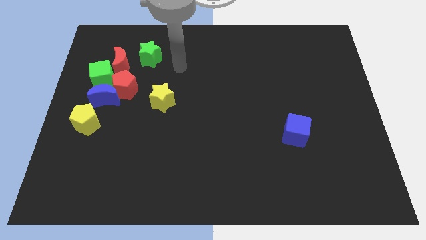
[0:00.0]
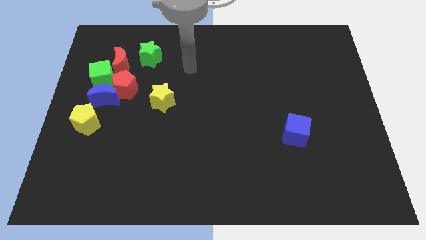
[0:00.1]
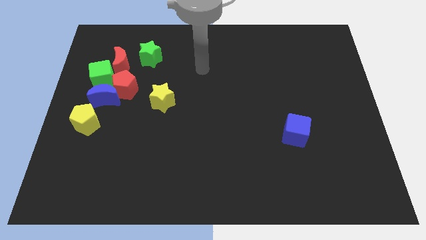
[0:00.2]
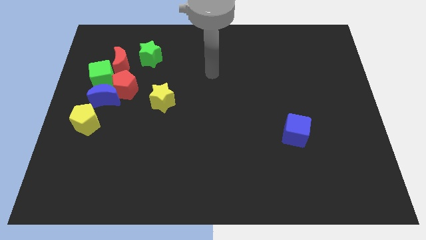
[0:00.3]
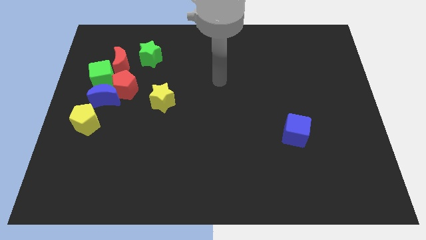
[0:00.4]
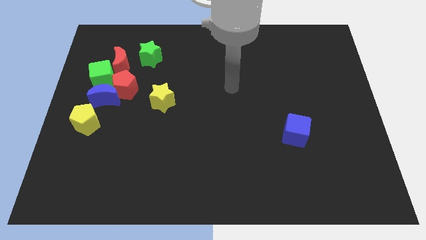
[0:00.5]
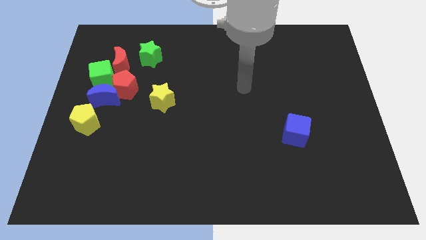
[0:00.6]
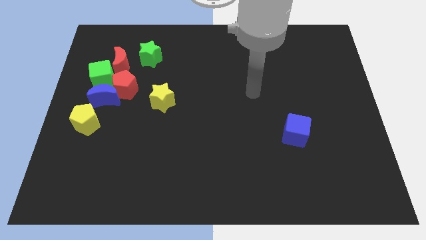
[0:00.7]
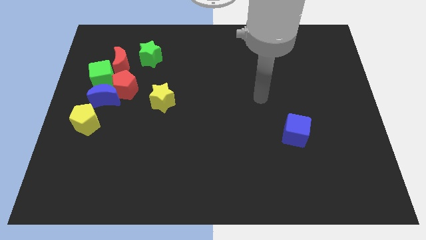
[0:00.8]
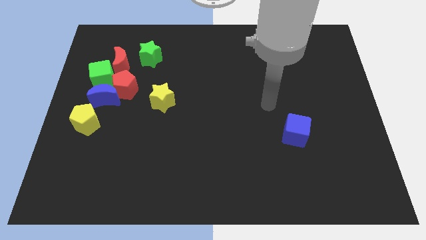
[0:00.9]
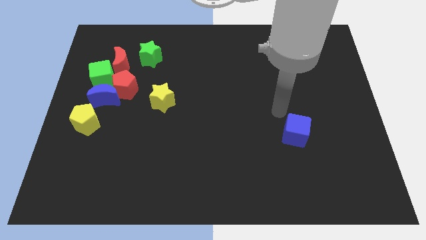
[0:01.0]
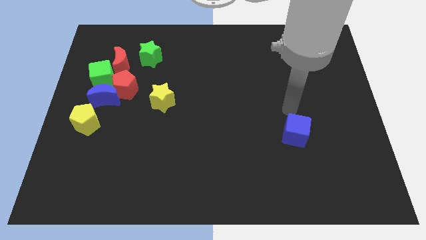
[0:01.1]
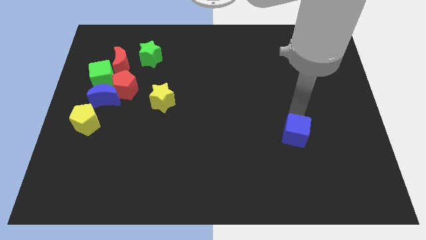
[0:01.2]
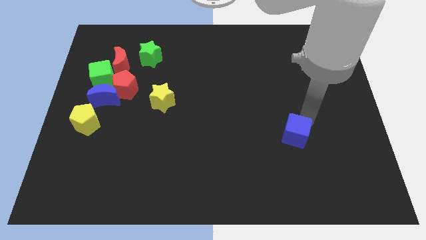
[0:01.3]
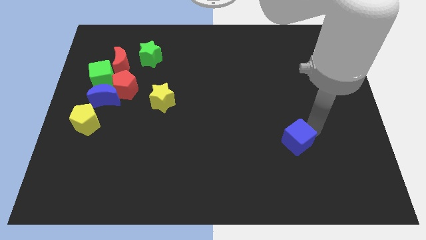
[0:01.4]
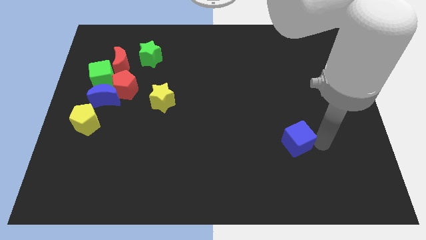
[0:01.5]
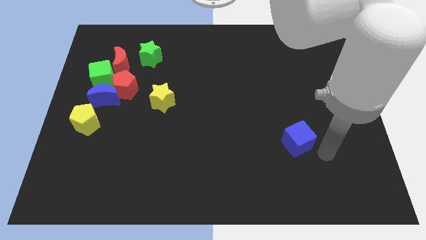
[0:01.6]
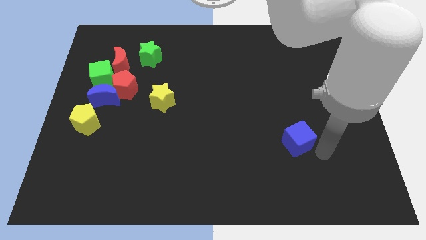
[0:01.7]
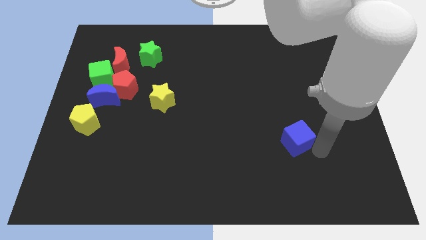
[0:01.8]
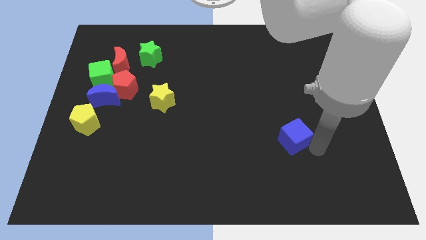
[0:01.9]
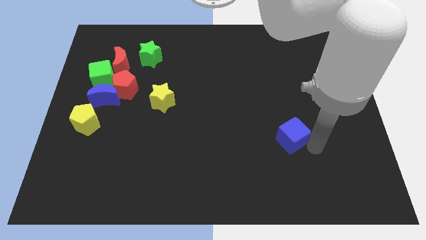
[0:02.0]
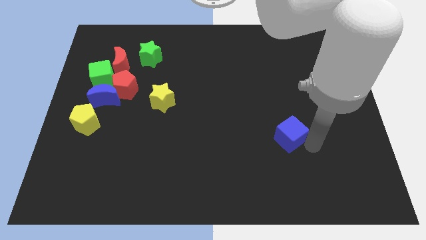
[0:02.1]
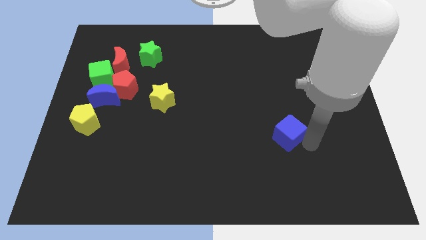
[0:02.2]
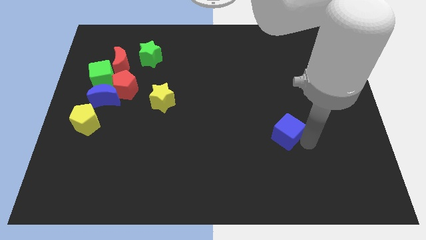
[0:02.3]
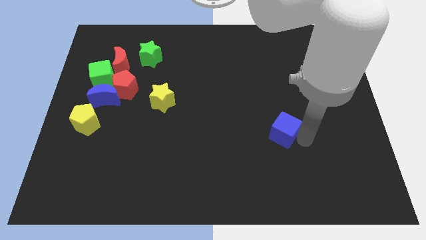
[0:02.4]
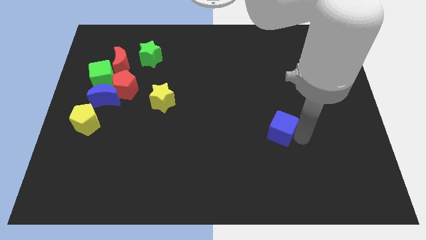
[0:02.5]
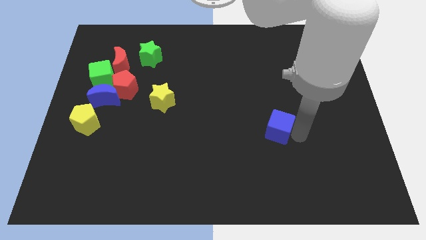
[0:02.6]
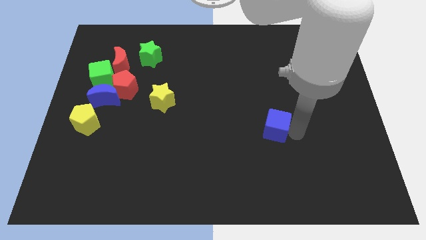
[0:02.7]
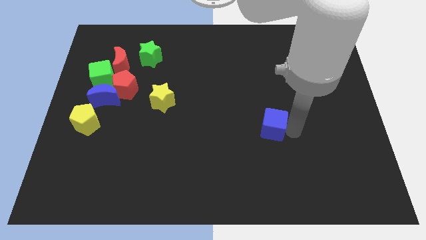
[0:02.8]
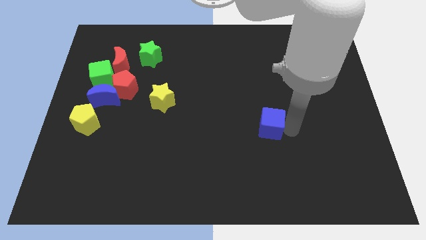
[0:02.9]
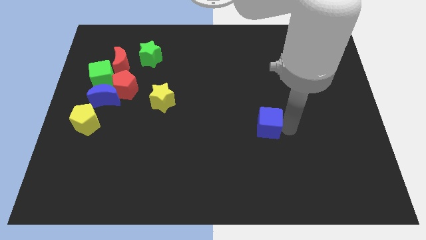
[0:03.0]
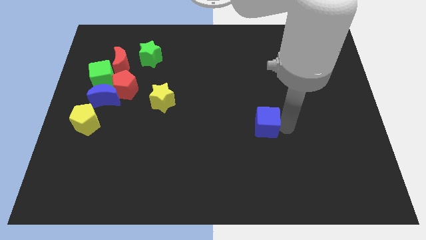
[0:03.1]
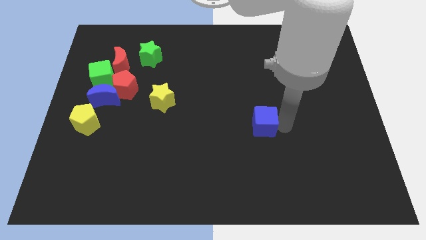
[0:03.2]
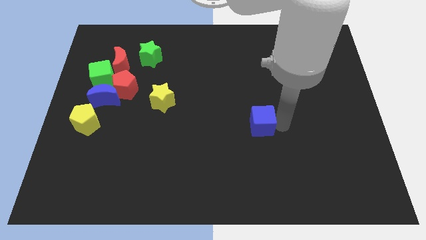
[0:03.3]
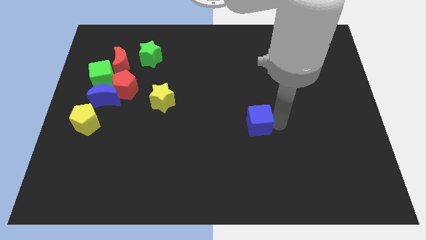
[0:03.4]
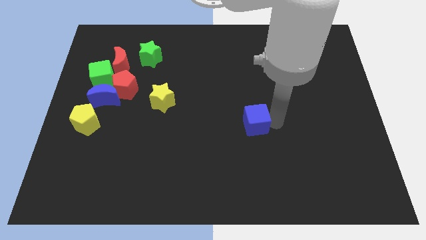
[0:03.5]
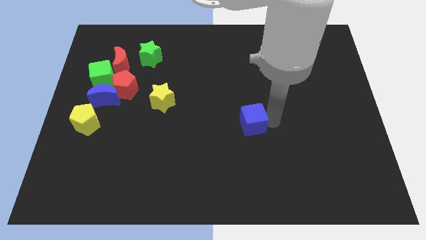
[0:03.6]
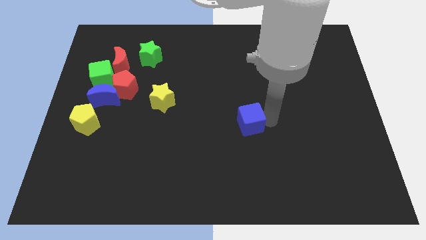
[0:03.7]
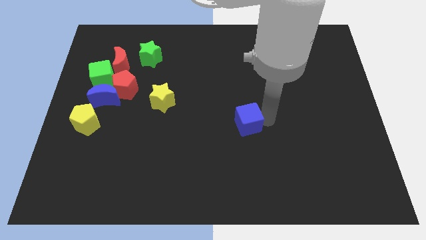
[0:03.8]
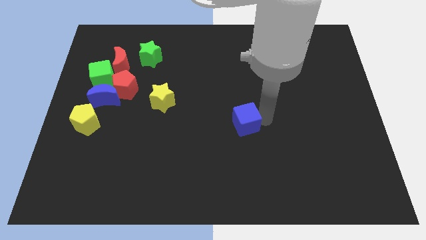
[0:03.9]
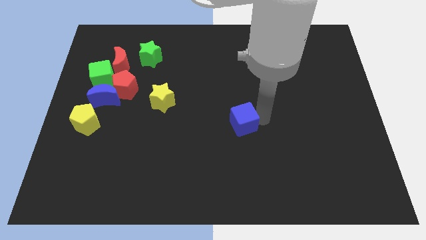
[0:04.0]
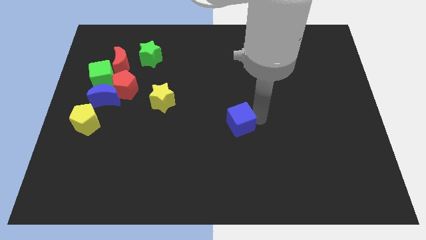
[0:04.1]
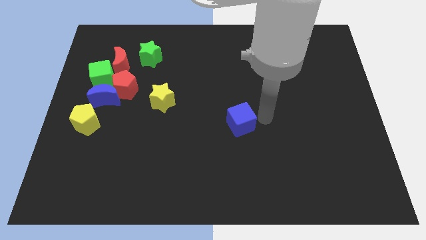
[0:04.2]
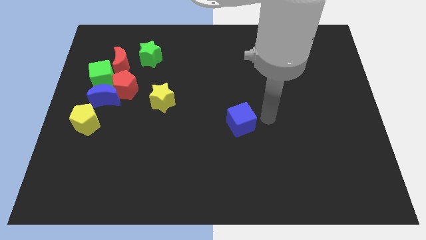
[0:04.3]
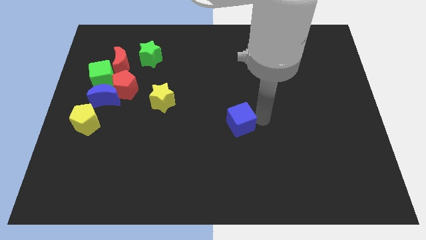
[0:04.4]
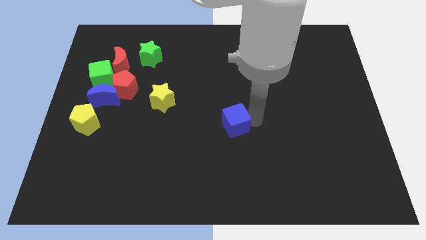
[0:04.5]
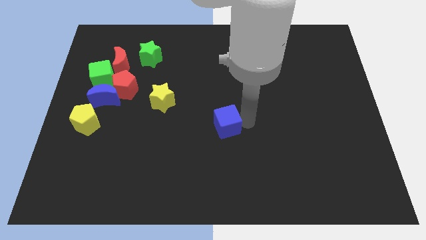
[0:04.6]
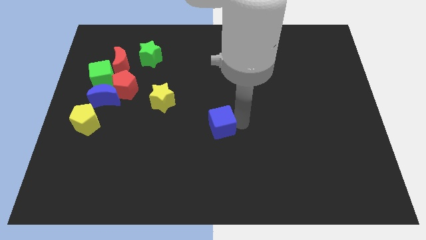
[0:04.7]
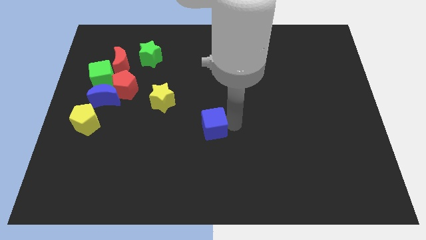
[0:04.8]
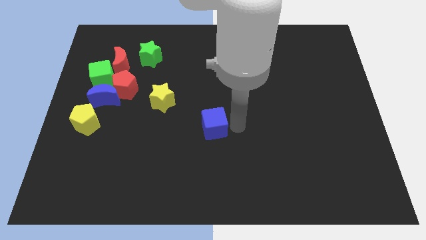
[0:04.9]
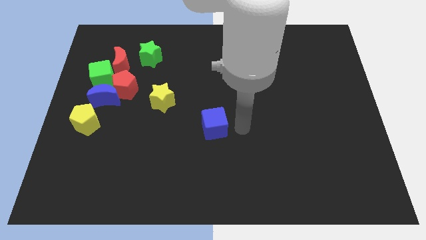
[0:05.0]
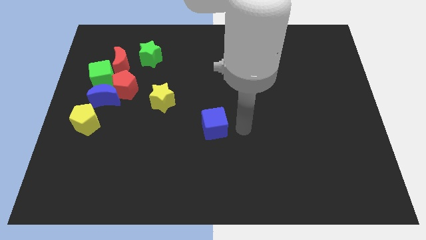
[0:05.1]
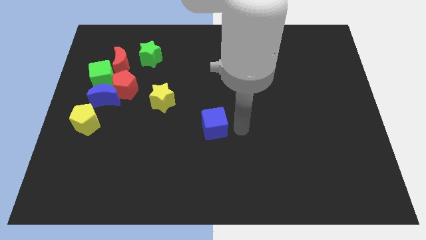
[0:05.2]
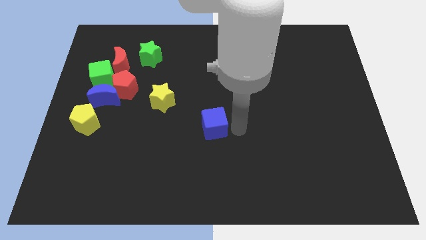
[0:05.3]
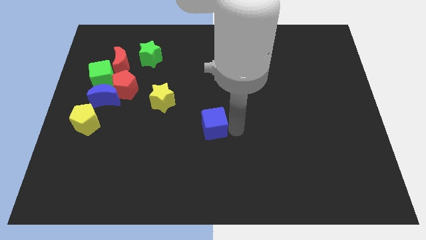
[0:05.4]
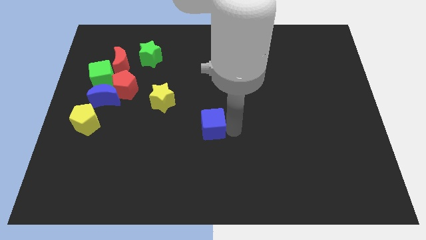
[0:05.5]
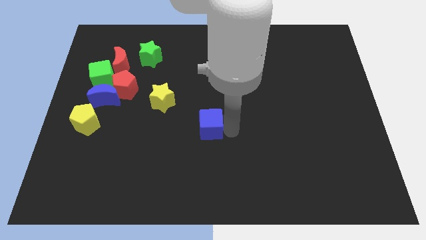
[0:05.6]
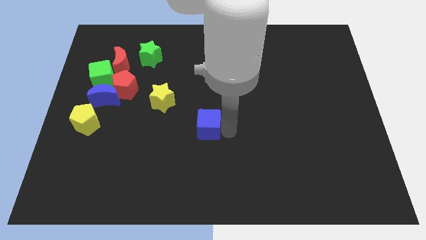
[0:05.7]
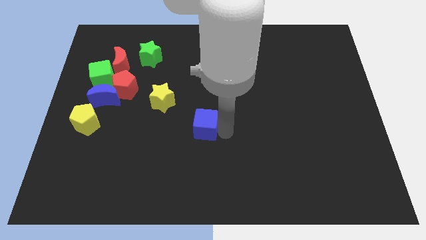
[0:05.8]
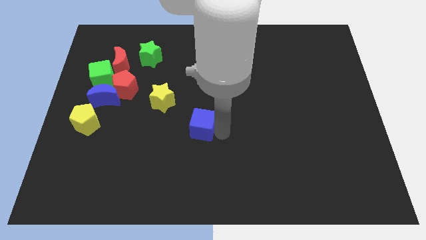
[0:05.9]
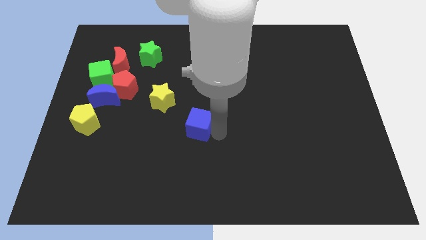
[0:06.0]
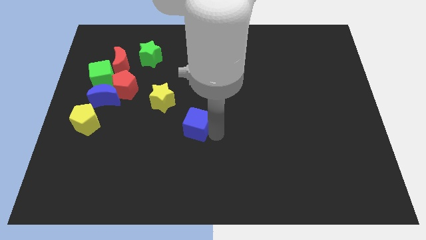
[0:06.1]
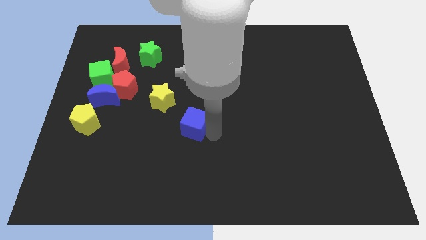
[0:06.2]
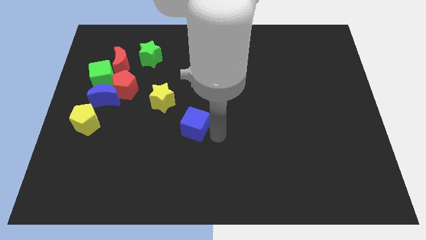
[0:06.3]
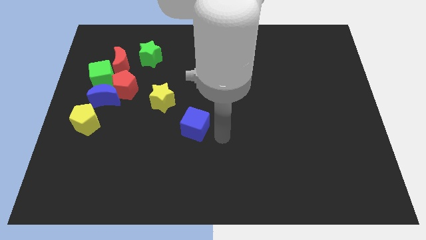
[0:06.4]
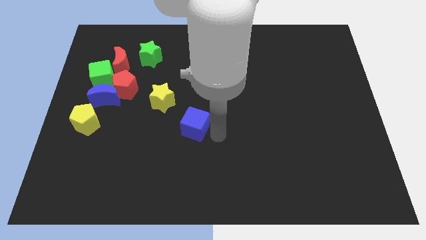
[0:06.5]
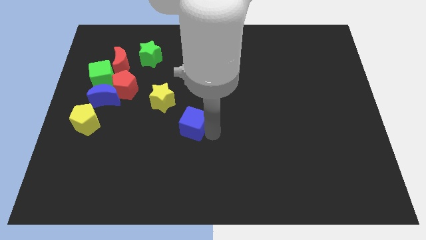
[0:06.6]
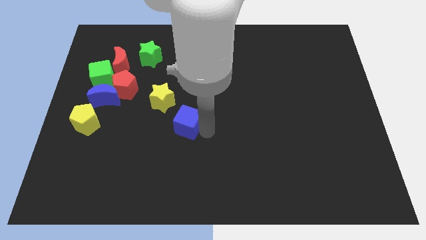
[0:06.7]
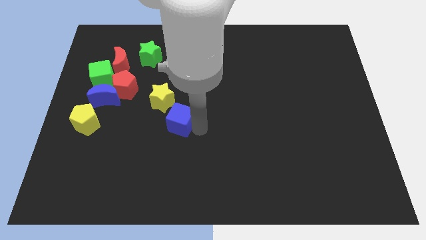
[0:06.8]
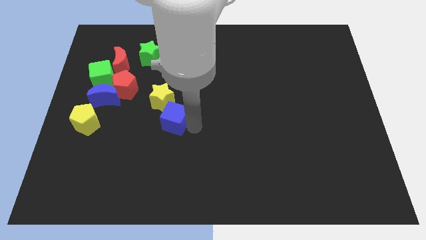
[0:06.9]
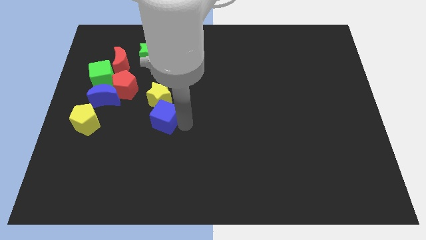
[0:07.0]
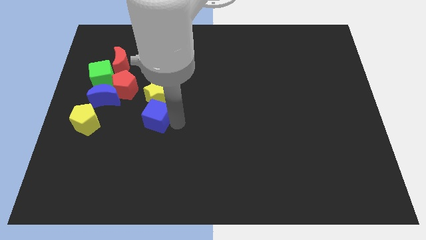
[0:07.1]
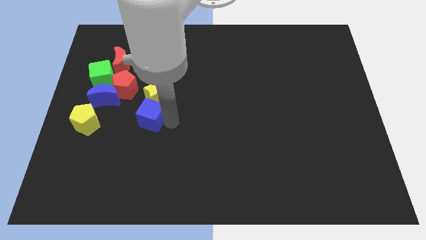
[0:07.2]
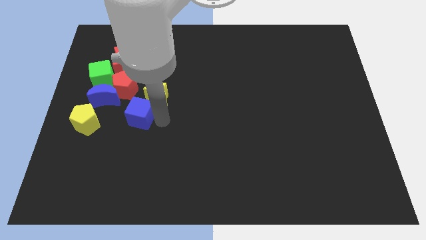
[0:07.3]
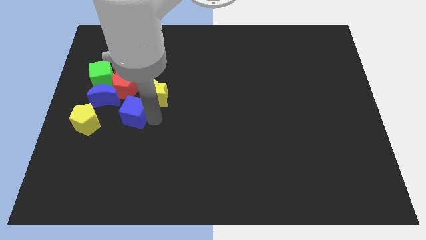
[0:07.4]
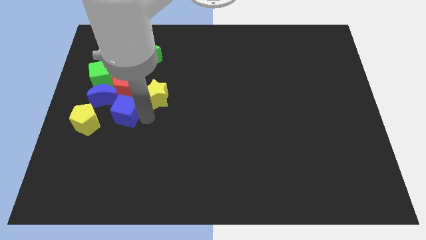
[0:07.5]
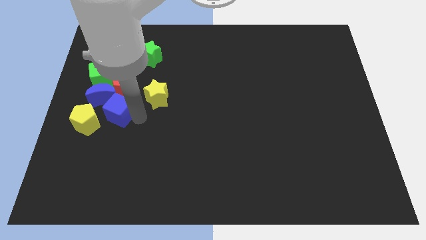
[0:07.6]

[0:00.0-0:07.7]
slide the blue cube to the bottom of the red moon

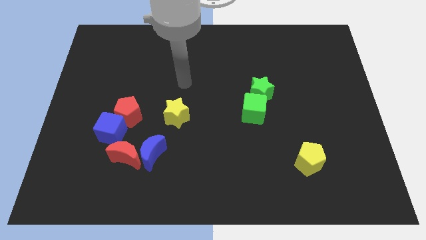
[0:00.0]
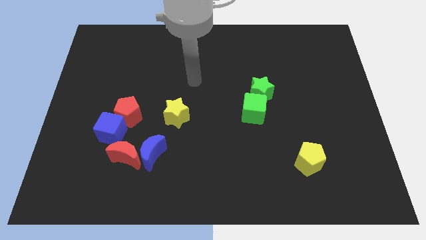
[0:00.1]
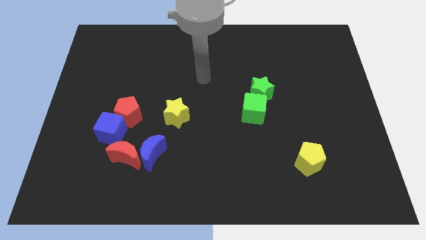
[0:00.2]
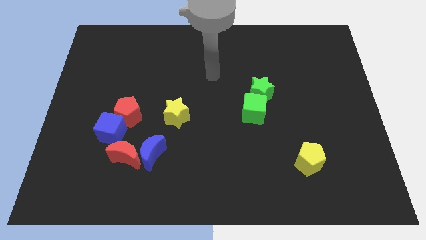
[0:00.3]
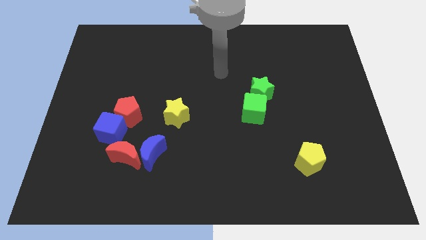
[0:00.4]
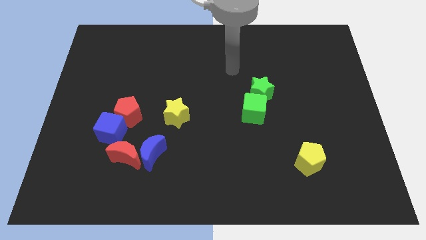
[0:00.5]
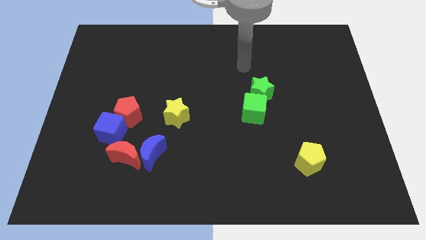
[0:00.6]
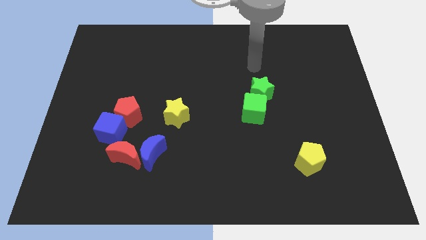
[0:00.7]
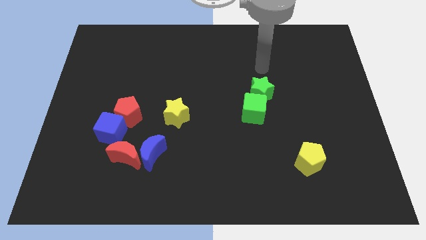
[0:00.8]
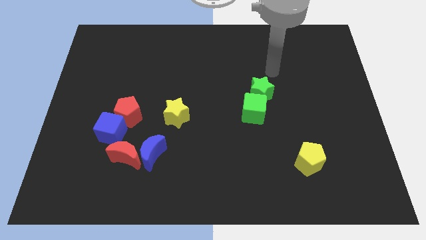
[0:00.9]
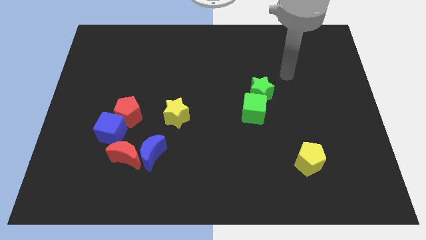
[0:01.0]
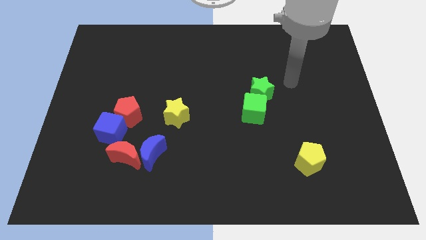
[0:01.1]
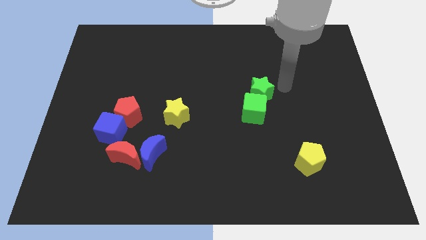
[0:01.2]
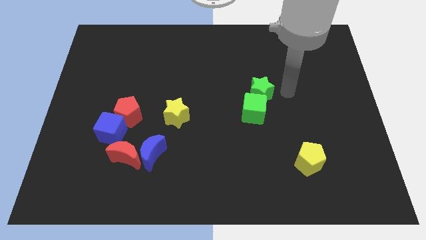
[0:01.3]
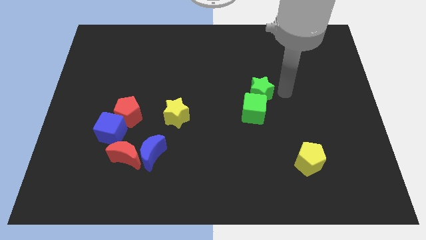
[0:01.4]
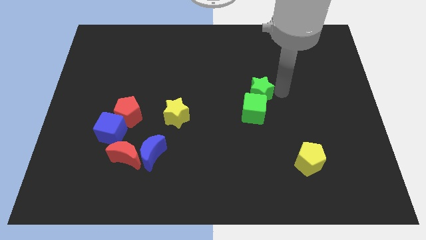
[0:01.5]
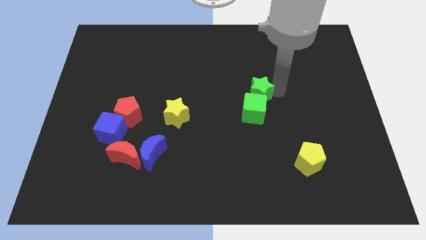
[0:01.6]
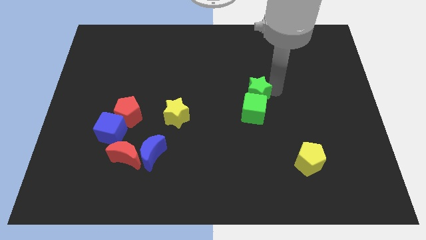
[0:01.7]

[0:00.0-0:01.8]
move the green star to the top left of the green cube
